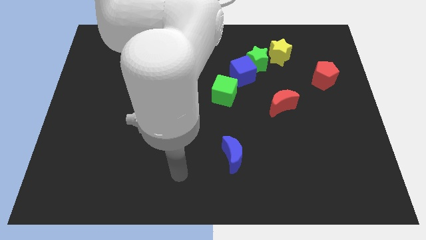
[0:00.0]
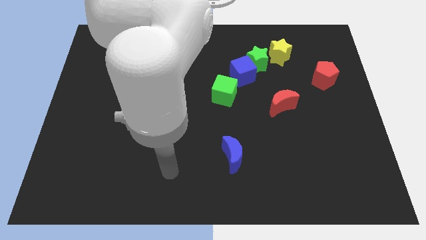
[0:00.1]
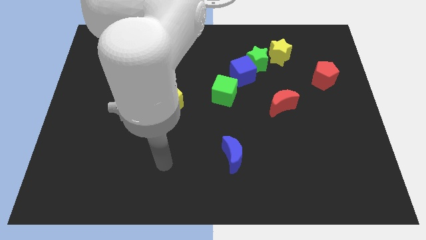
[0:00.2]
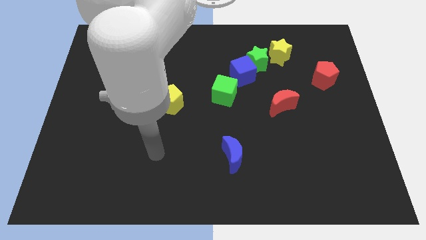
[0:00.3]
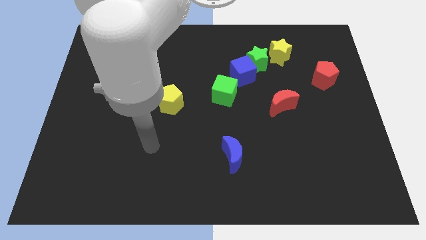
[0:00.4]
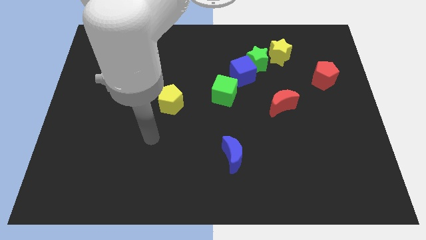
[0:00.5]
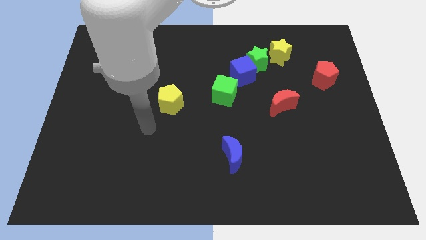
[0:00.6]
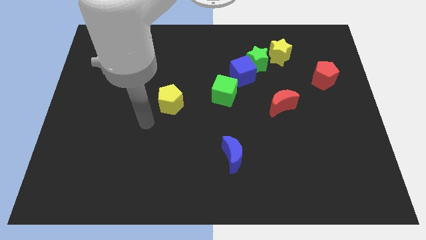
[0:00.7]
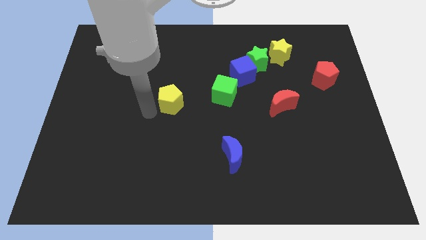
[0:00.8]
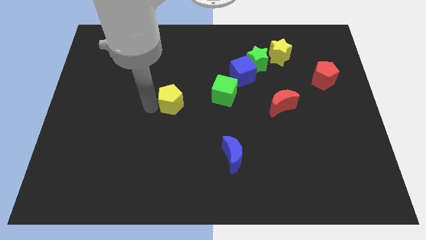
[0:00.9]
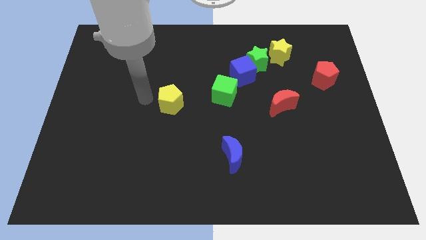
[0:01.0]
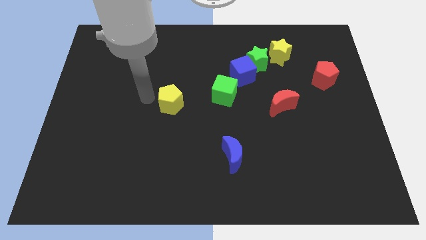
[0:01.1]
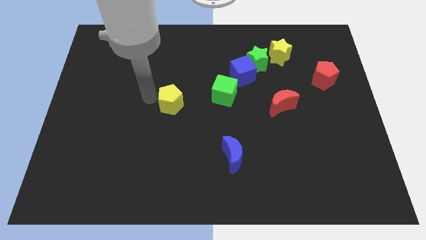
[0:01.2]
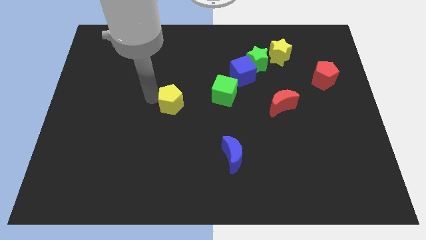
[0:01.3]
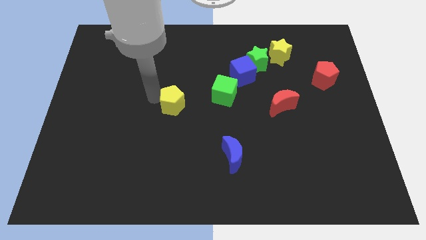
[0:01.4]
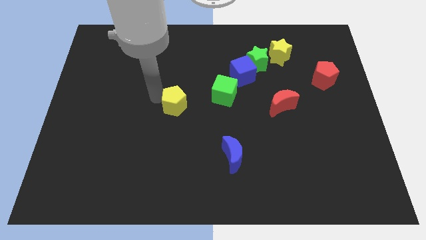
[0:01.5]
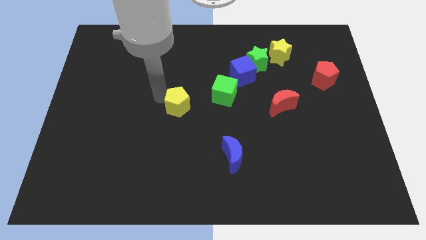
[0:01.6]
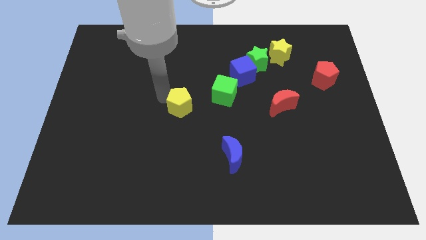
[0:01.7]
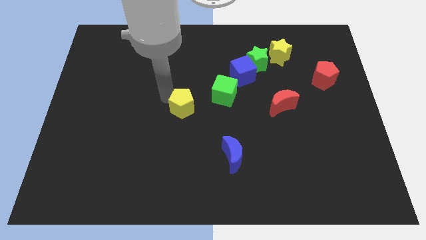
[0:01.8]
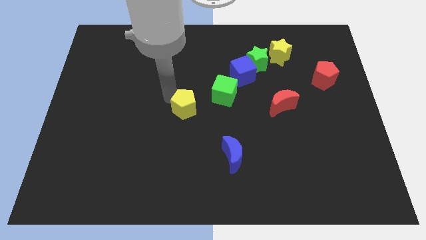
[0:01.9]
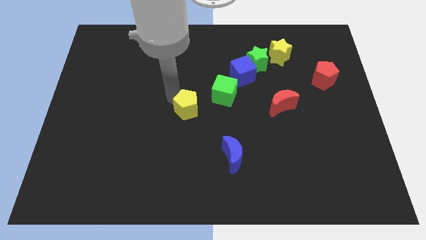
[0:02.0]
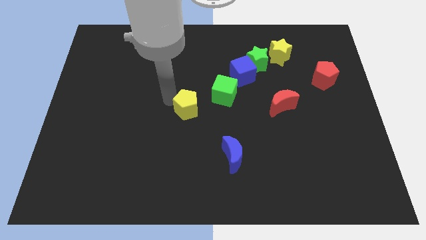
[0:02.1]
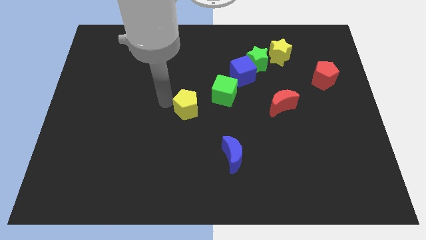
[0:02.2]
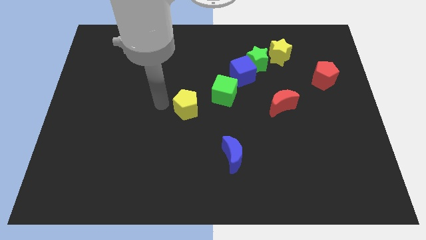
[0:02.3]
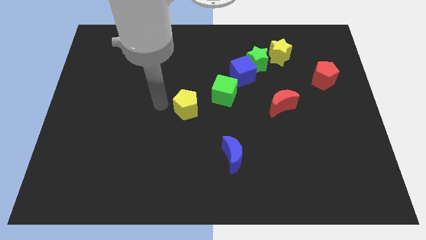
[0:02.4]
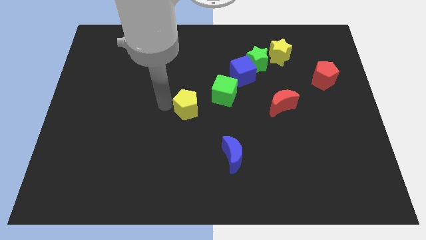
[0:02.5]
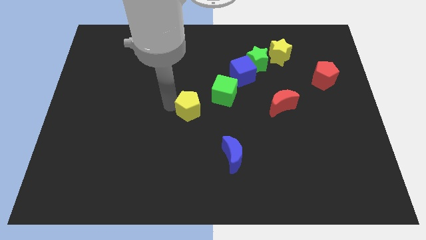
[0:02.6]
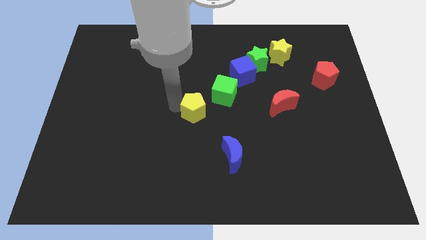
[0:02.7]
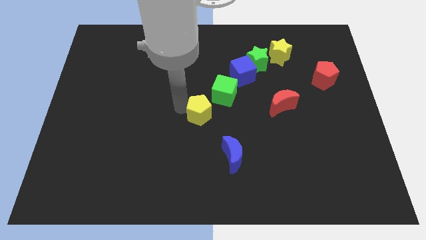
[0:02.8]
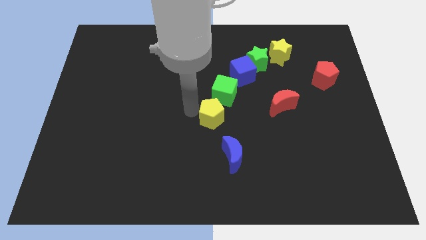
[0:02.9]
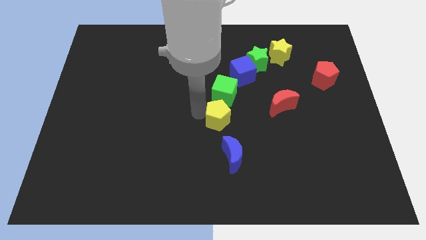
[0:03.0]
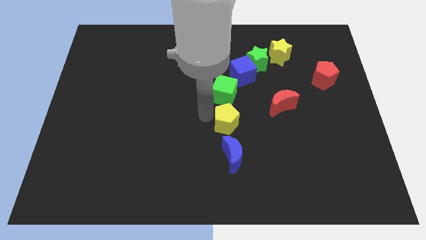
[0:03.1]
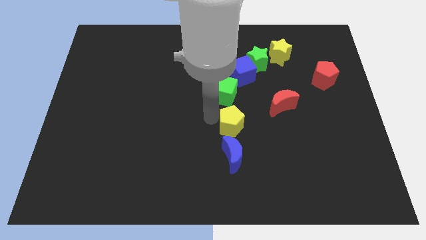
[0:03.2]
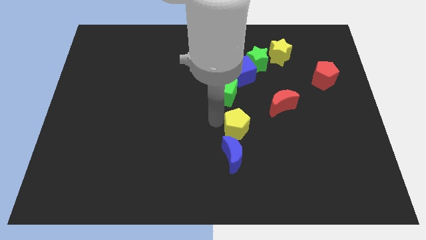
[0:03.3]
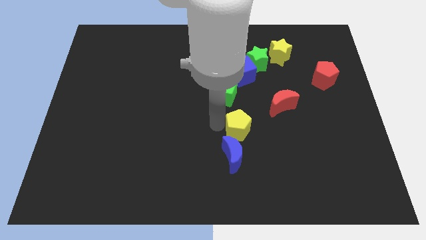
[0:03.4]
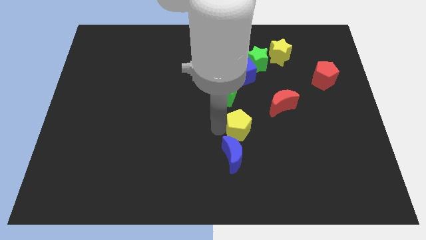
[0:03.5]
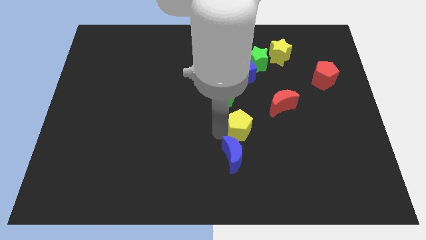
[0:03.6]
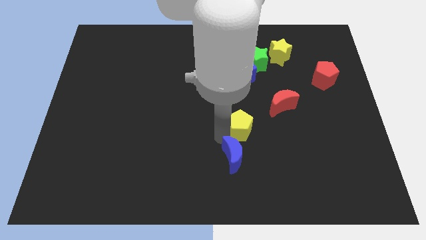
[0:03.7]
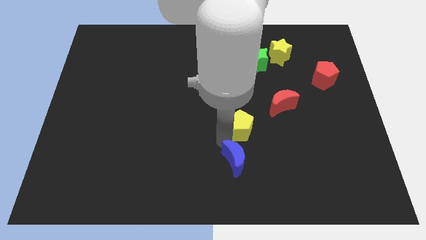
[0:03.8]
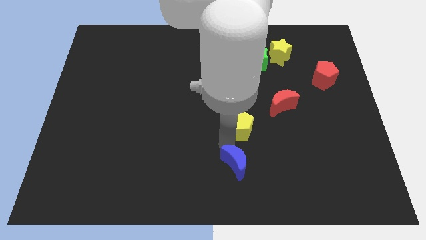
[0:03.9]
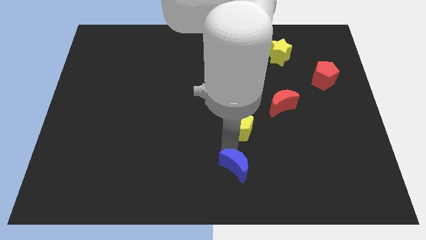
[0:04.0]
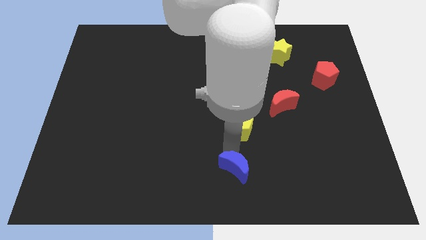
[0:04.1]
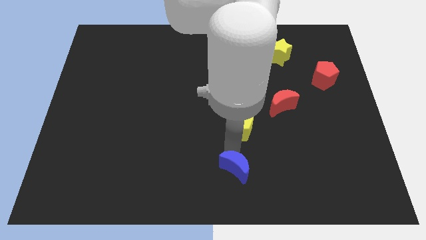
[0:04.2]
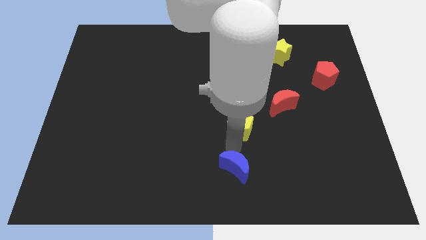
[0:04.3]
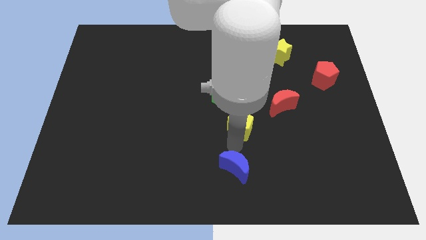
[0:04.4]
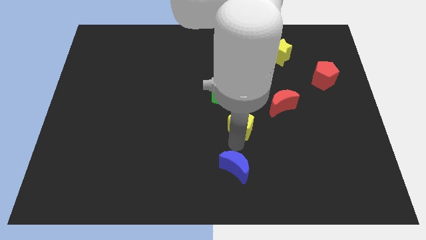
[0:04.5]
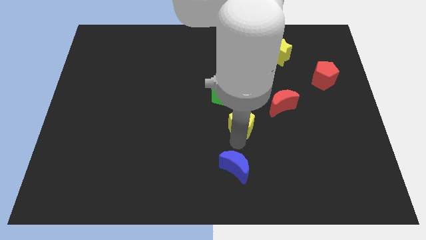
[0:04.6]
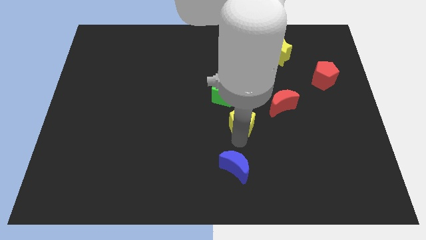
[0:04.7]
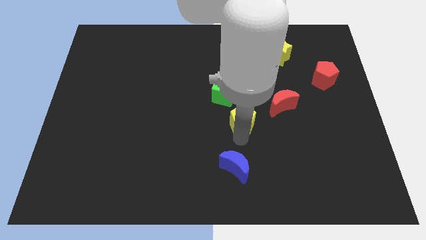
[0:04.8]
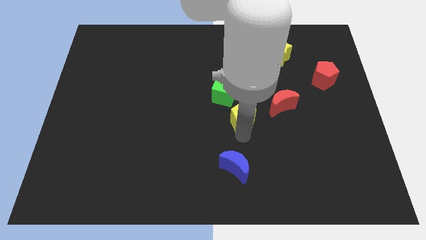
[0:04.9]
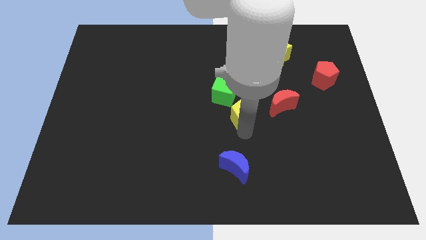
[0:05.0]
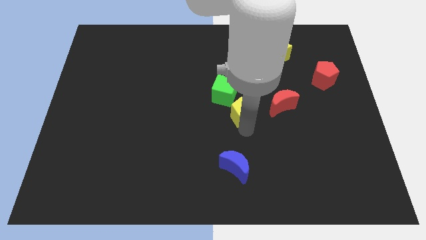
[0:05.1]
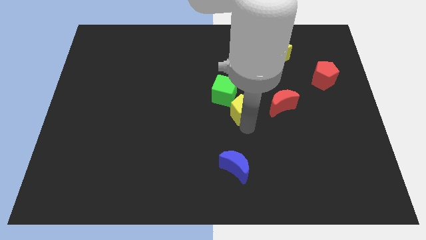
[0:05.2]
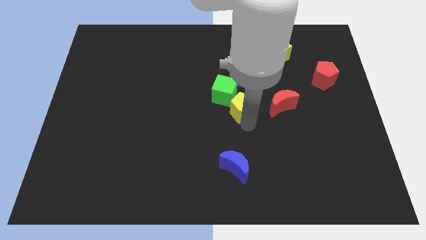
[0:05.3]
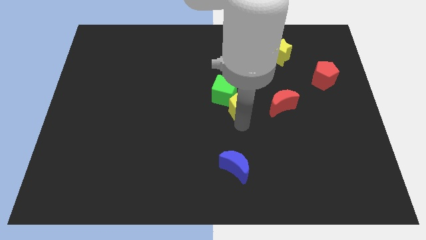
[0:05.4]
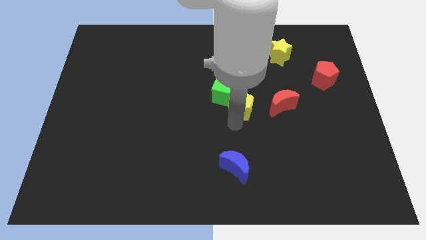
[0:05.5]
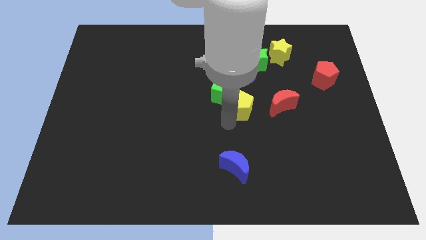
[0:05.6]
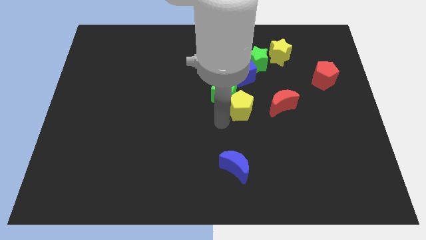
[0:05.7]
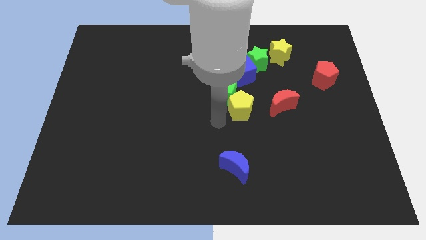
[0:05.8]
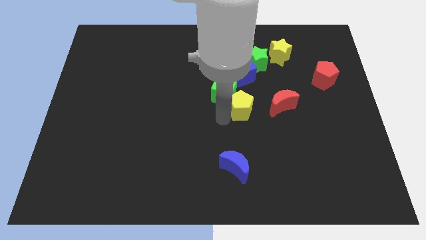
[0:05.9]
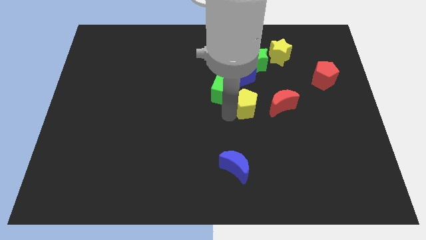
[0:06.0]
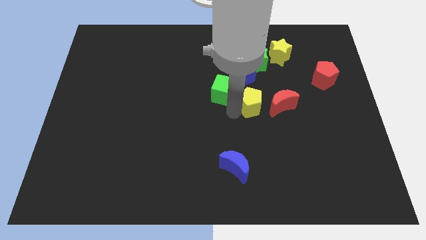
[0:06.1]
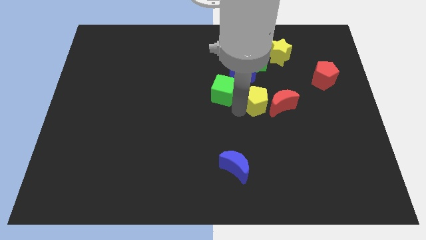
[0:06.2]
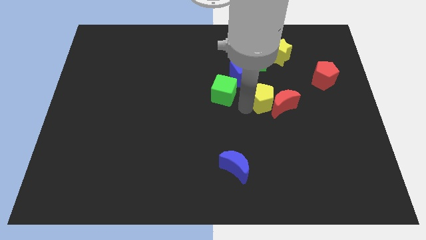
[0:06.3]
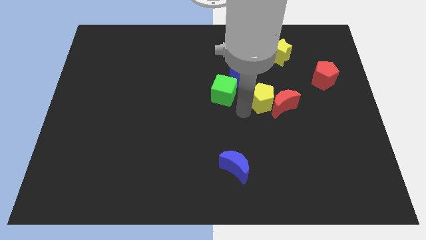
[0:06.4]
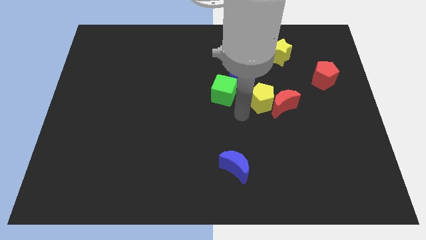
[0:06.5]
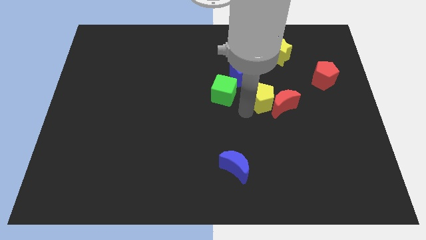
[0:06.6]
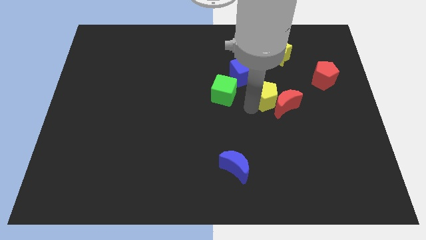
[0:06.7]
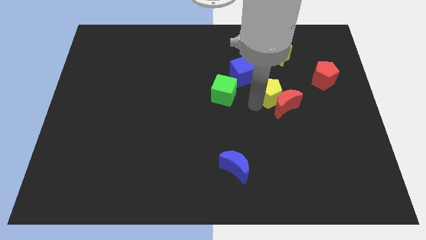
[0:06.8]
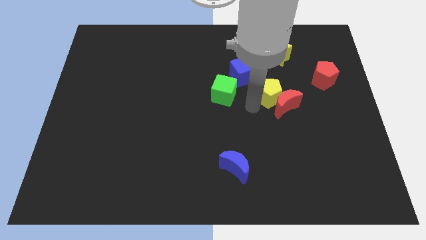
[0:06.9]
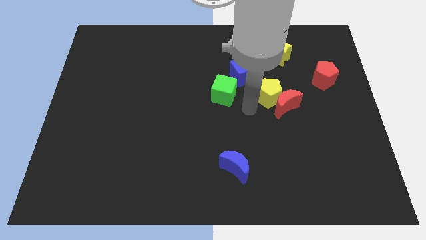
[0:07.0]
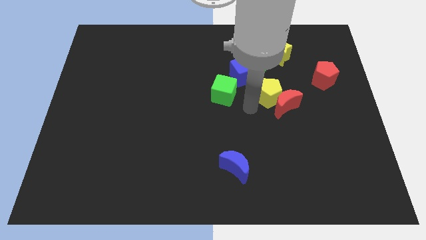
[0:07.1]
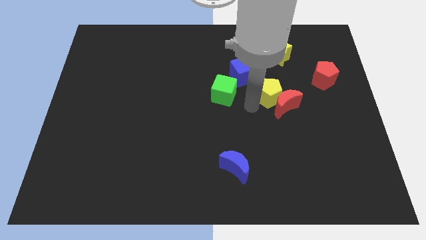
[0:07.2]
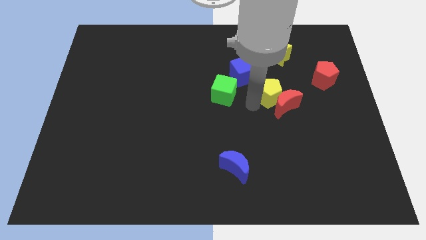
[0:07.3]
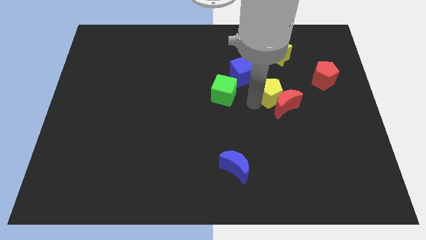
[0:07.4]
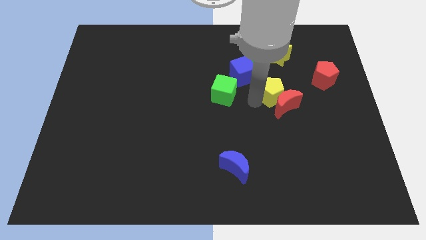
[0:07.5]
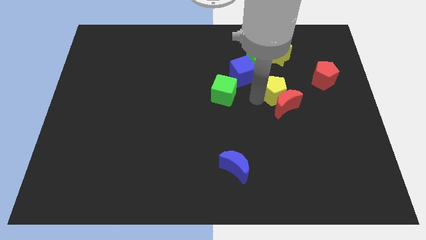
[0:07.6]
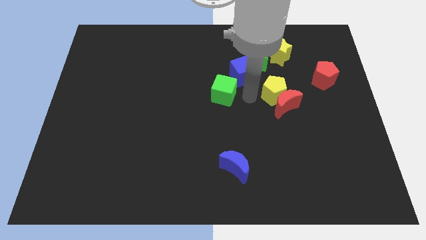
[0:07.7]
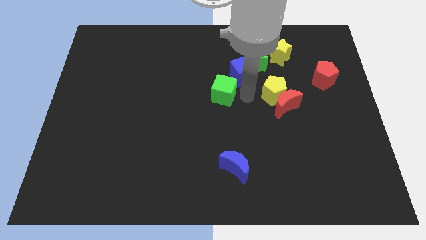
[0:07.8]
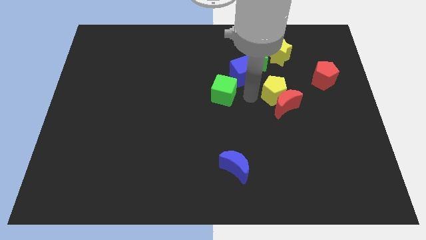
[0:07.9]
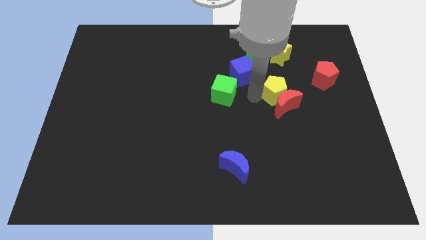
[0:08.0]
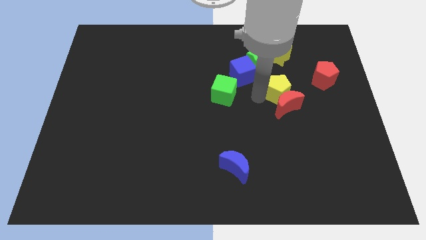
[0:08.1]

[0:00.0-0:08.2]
move the yellow pentagon to the top right of the red moon
